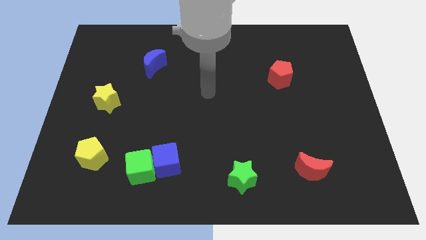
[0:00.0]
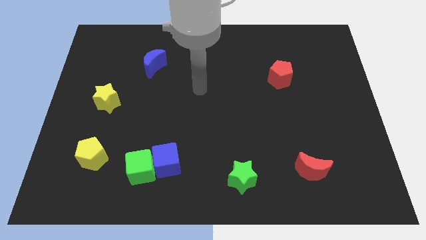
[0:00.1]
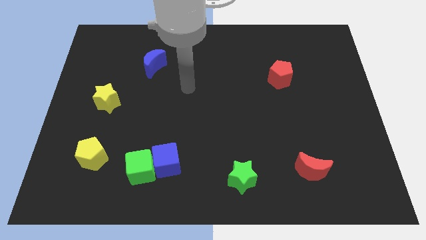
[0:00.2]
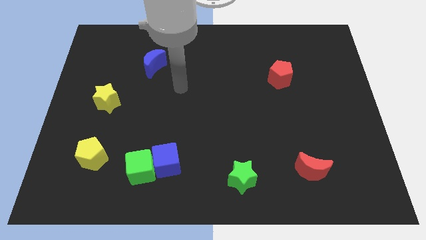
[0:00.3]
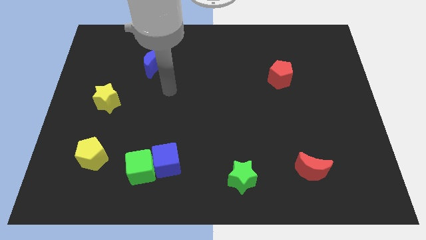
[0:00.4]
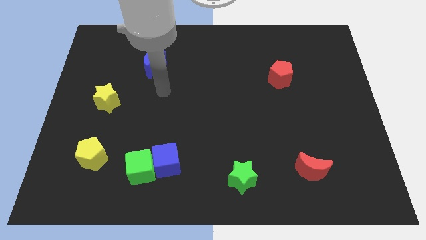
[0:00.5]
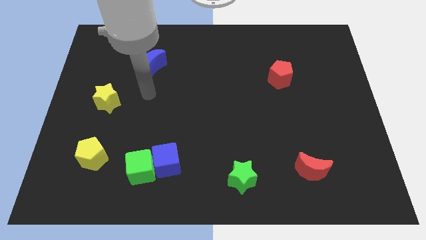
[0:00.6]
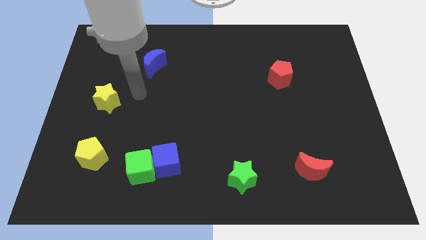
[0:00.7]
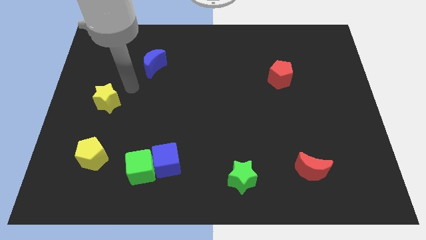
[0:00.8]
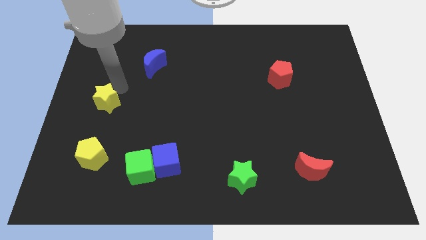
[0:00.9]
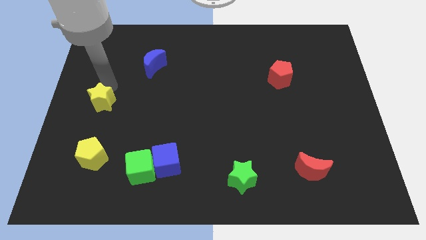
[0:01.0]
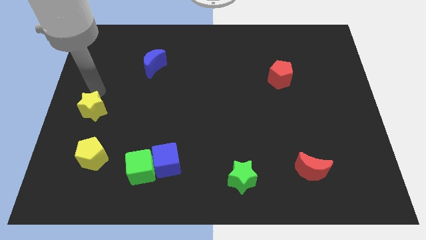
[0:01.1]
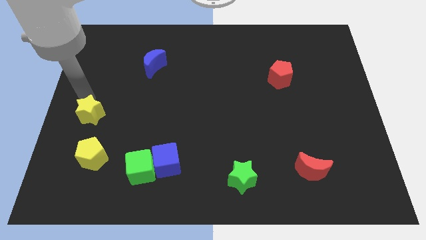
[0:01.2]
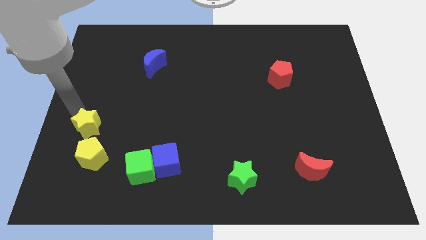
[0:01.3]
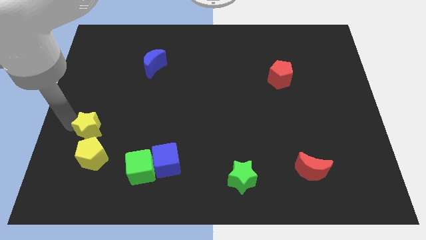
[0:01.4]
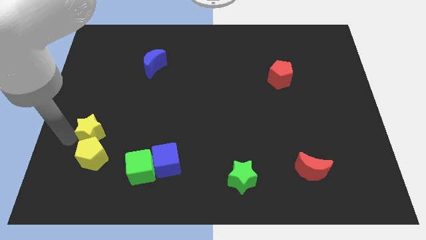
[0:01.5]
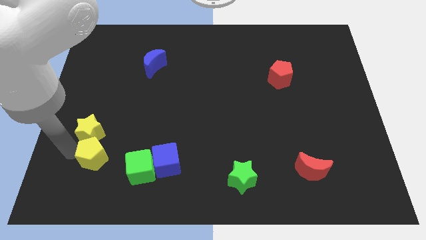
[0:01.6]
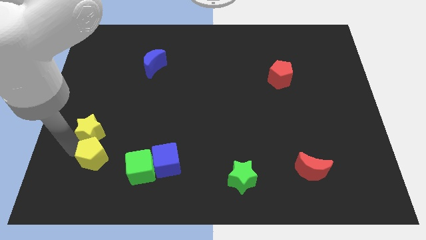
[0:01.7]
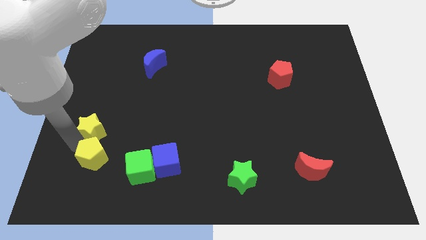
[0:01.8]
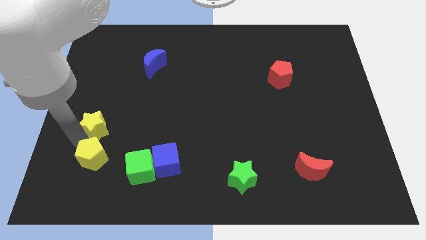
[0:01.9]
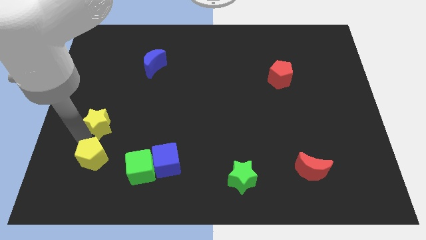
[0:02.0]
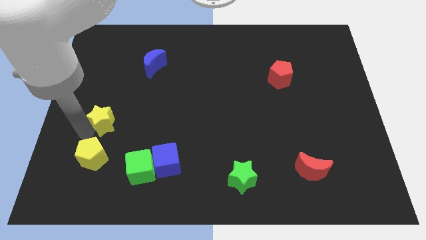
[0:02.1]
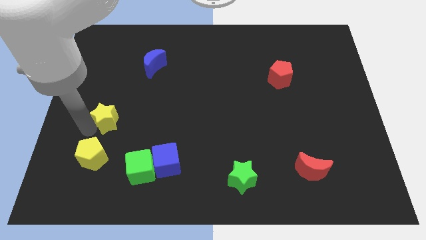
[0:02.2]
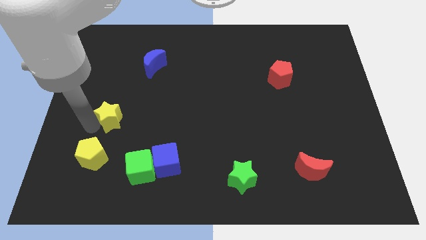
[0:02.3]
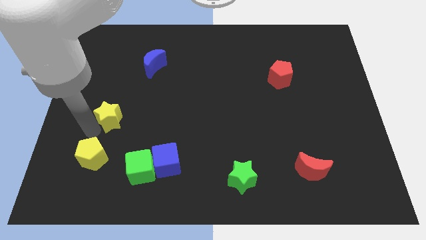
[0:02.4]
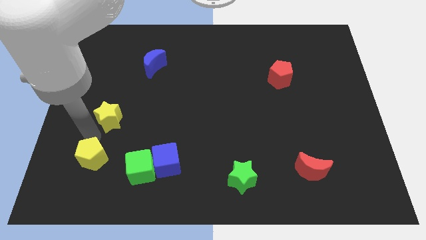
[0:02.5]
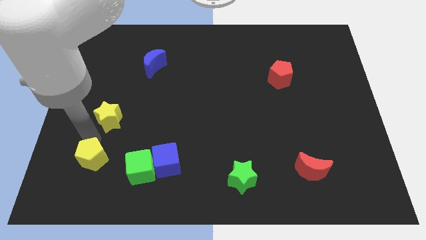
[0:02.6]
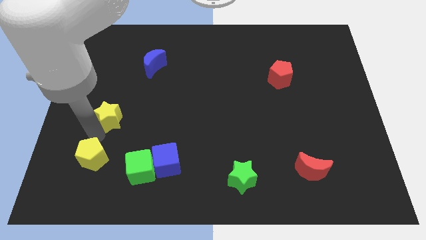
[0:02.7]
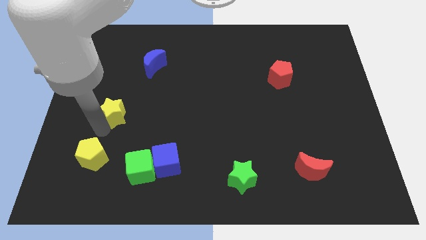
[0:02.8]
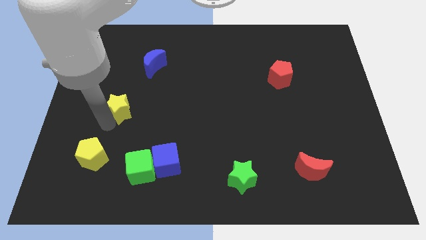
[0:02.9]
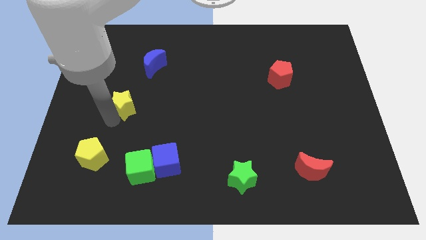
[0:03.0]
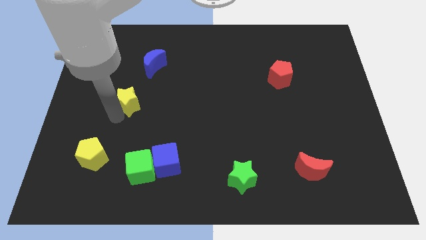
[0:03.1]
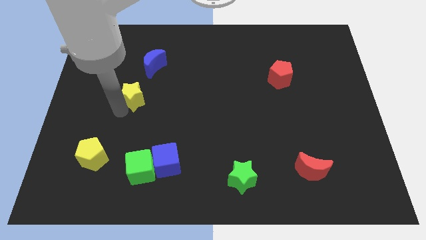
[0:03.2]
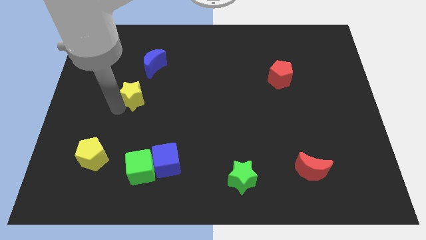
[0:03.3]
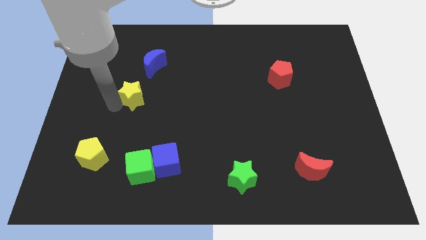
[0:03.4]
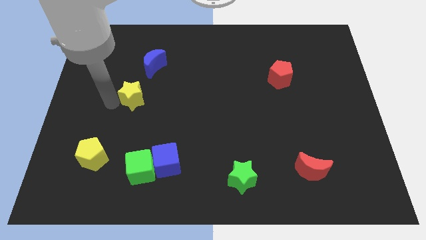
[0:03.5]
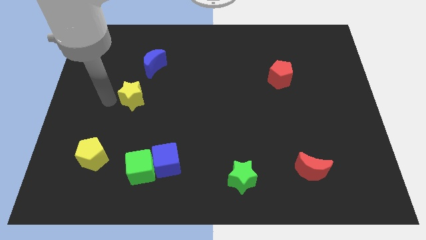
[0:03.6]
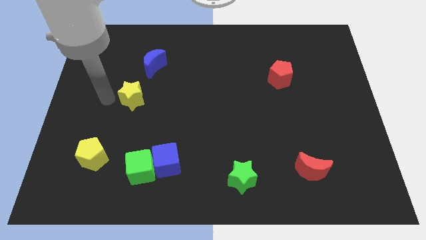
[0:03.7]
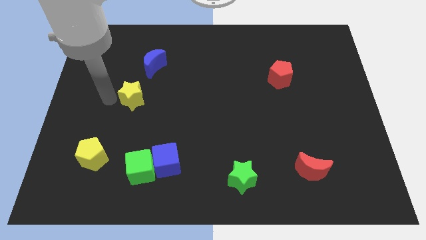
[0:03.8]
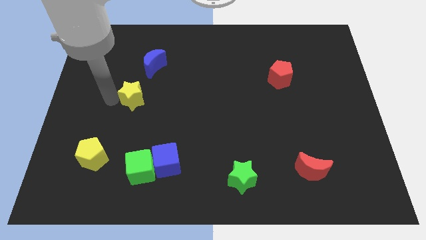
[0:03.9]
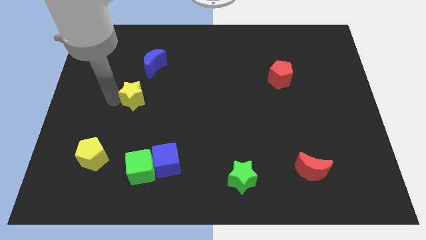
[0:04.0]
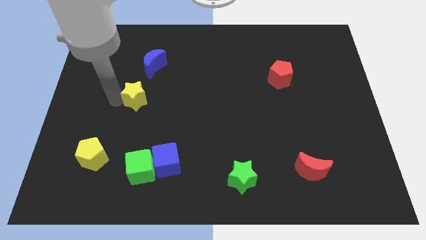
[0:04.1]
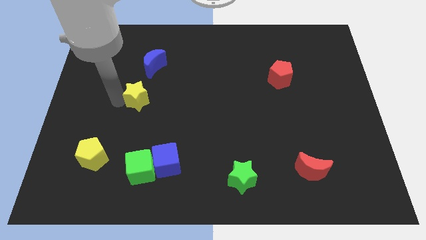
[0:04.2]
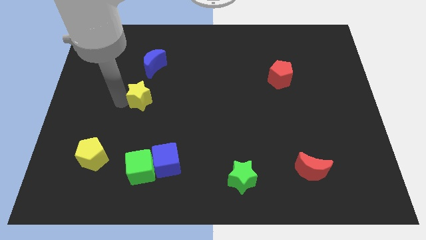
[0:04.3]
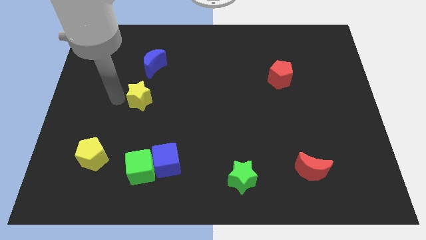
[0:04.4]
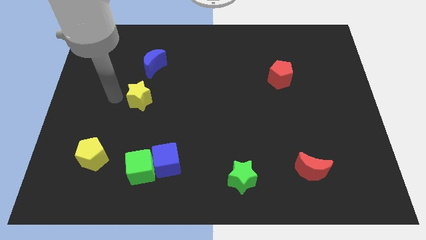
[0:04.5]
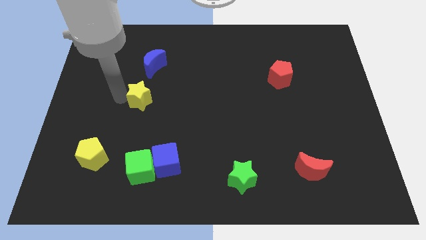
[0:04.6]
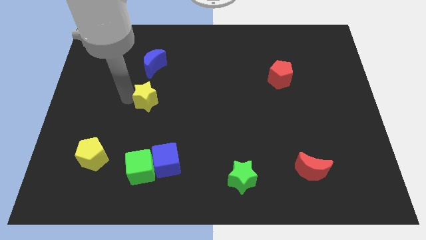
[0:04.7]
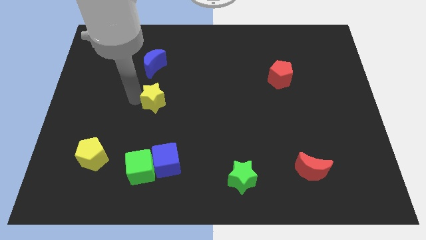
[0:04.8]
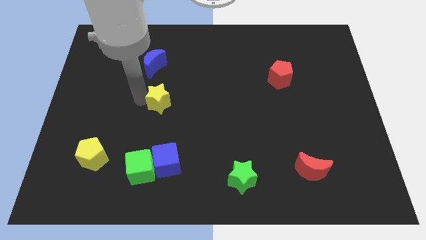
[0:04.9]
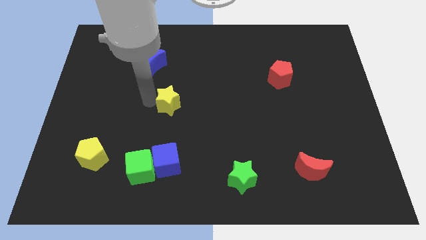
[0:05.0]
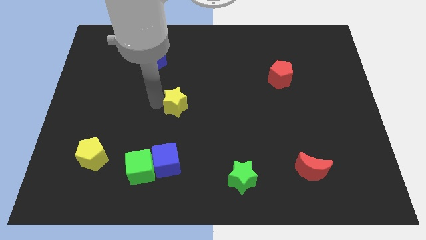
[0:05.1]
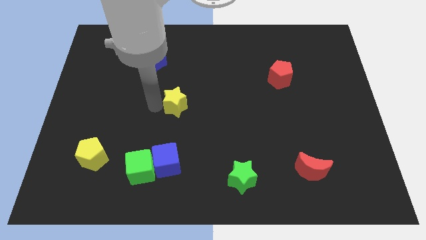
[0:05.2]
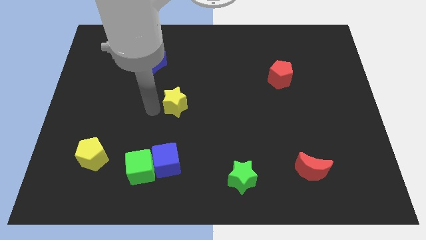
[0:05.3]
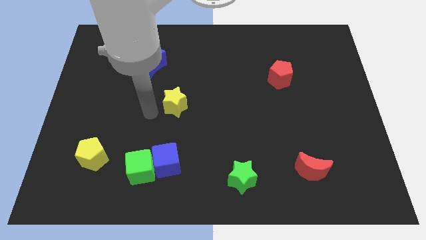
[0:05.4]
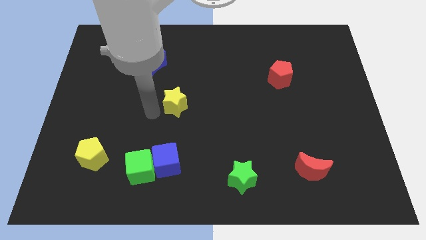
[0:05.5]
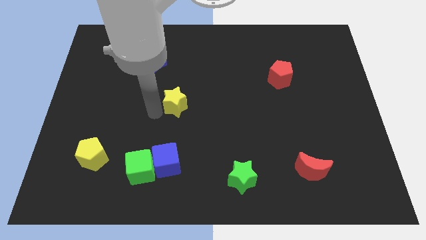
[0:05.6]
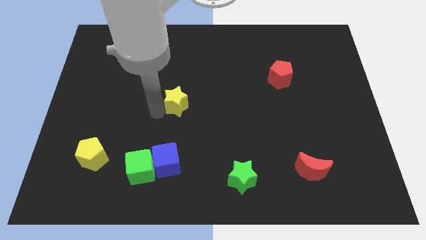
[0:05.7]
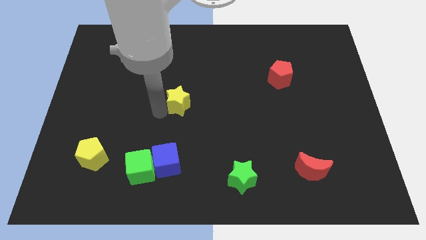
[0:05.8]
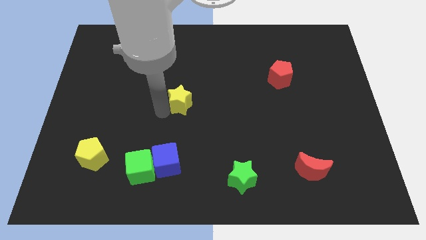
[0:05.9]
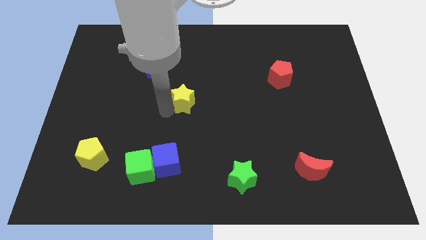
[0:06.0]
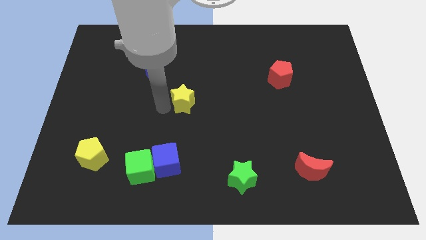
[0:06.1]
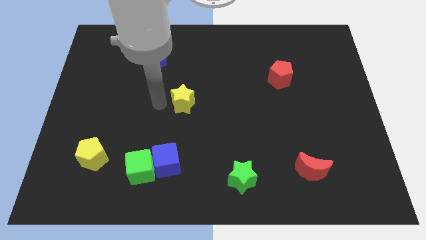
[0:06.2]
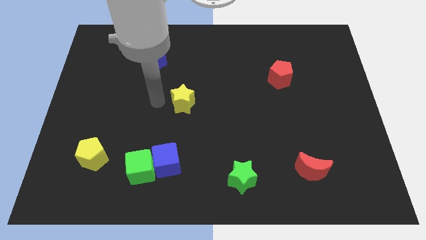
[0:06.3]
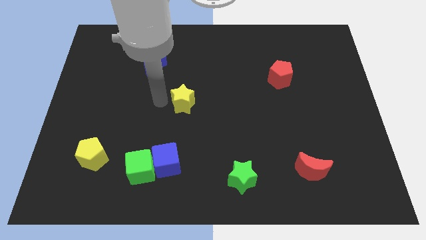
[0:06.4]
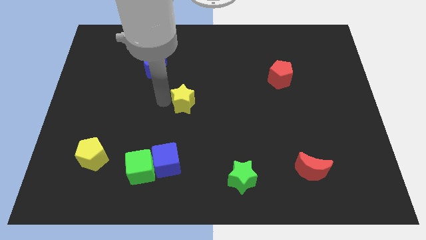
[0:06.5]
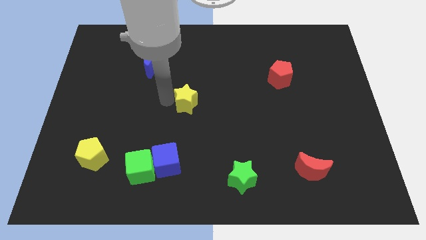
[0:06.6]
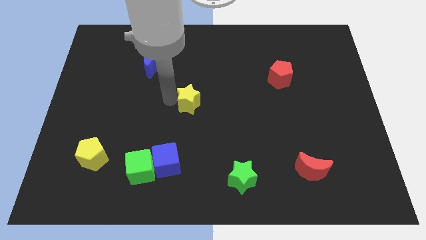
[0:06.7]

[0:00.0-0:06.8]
move the yellow star right

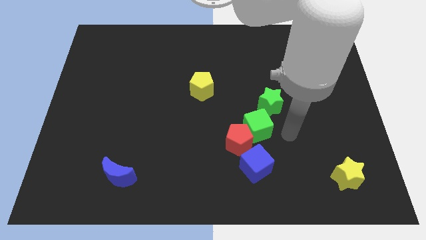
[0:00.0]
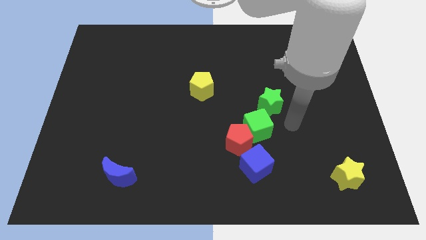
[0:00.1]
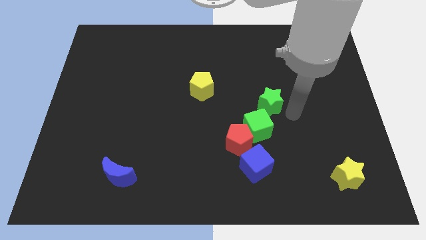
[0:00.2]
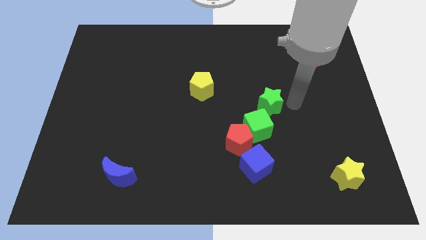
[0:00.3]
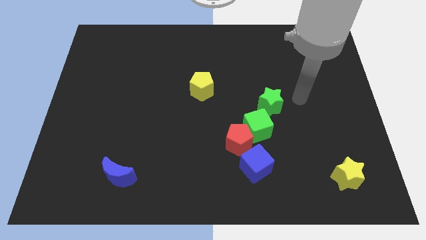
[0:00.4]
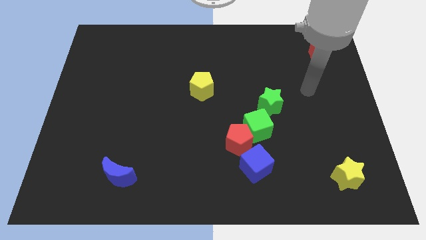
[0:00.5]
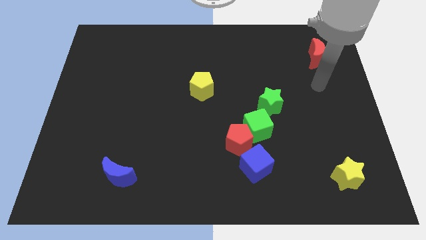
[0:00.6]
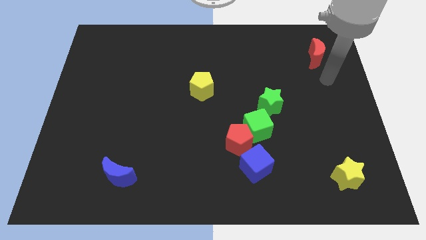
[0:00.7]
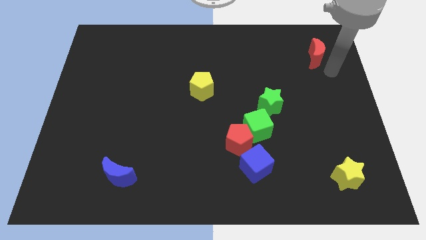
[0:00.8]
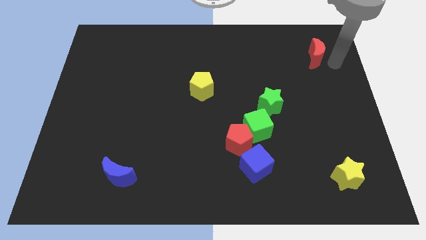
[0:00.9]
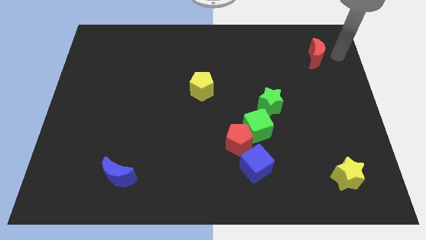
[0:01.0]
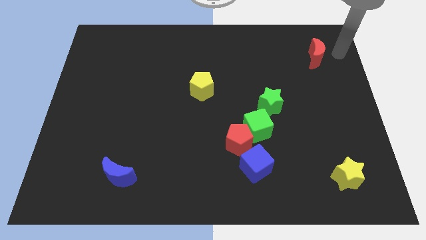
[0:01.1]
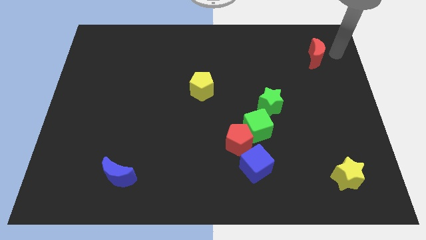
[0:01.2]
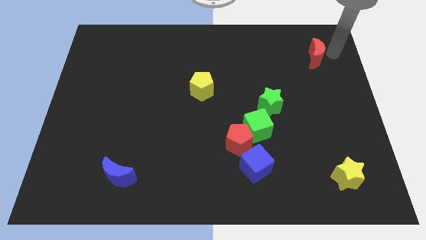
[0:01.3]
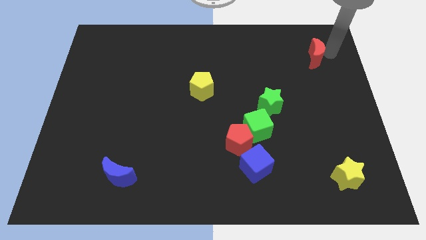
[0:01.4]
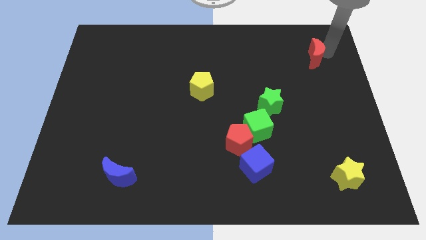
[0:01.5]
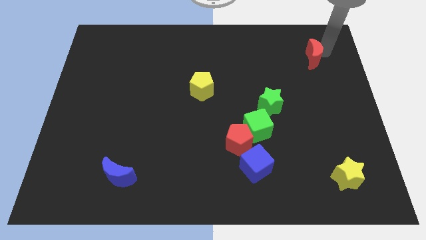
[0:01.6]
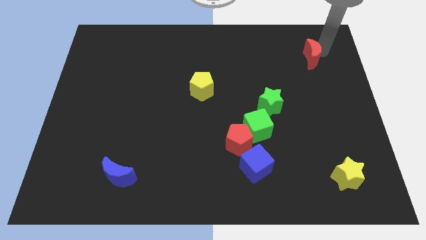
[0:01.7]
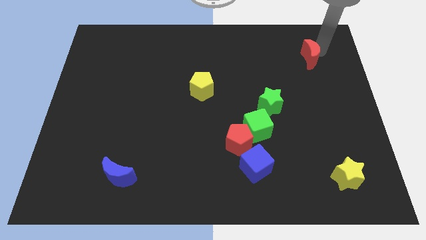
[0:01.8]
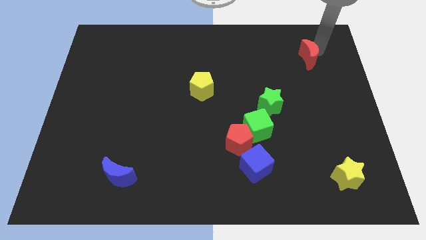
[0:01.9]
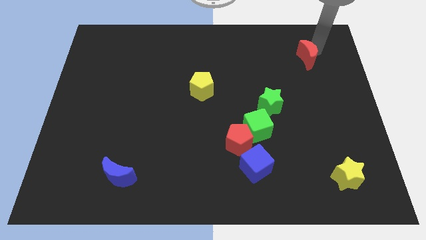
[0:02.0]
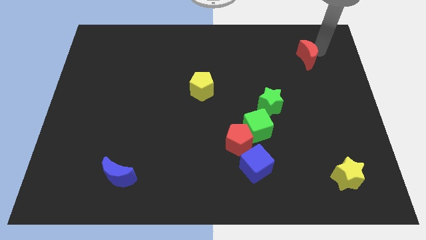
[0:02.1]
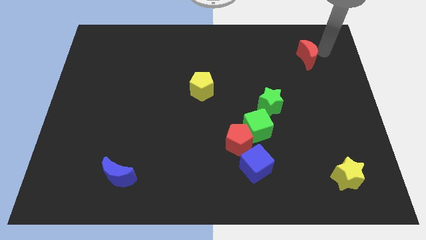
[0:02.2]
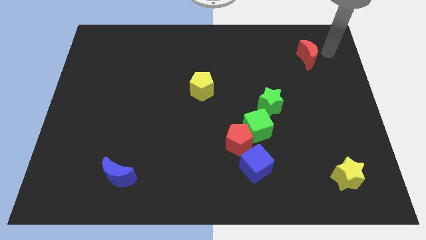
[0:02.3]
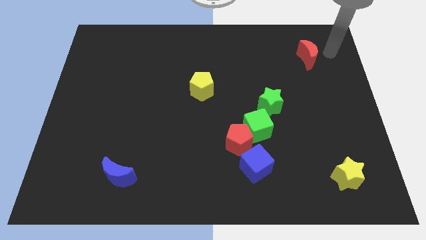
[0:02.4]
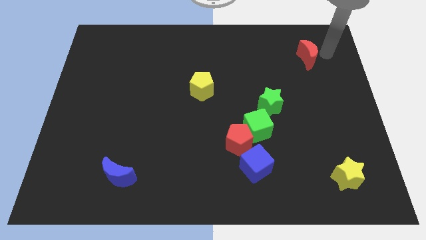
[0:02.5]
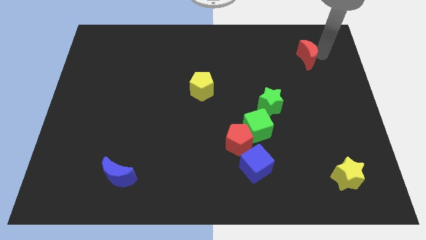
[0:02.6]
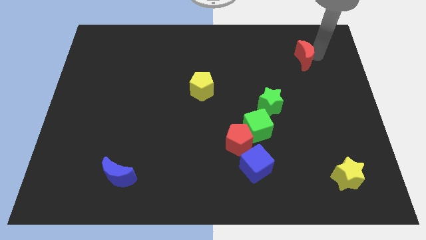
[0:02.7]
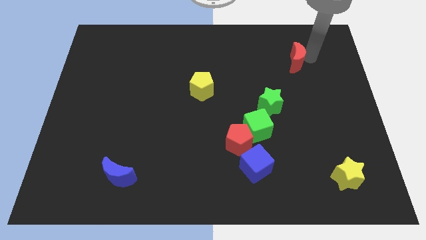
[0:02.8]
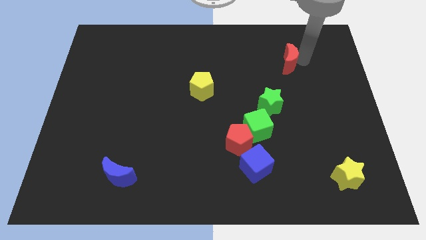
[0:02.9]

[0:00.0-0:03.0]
move the red moon to the left slightly
